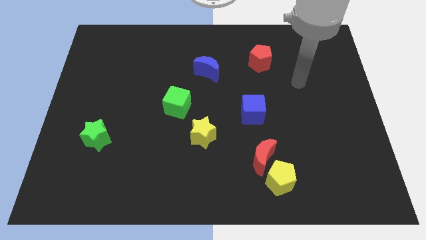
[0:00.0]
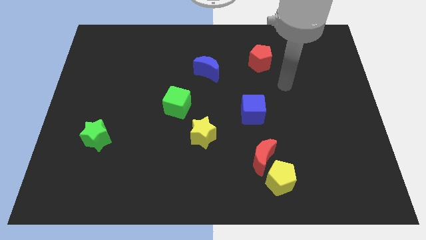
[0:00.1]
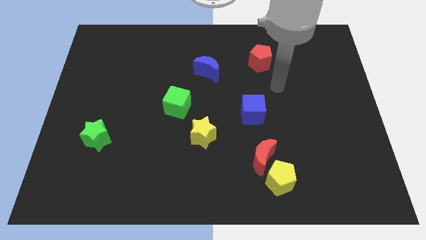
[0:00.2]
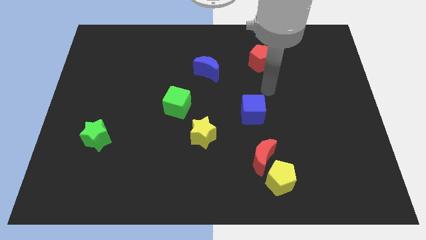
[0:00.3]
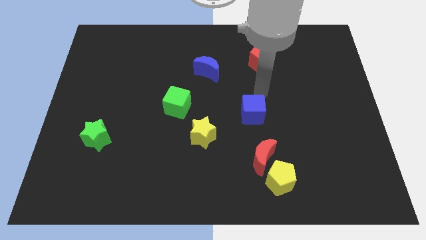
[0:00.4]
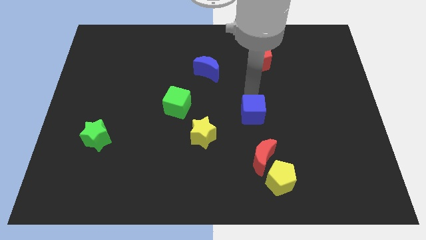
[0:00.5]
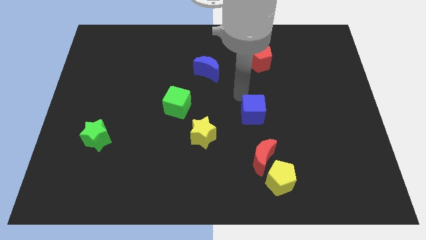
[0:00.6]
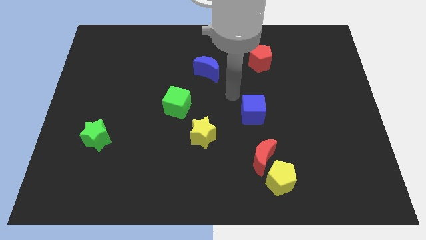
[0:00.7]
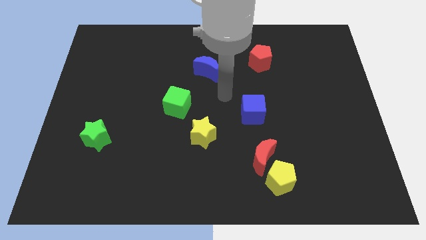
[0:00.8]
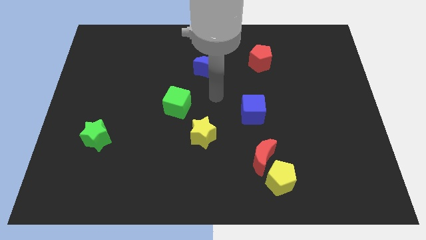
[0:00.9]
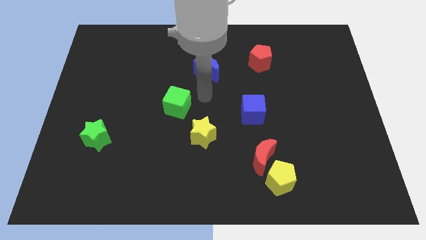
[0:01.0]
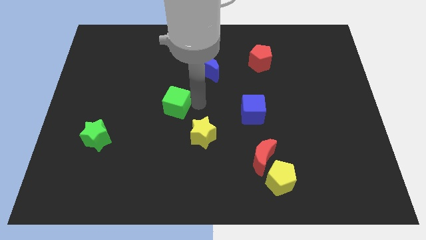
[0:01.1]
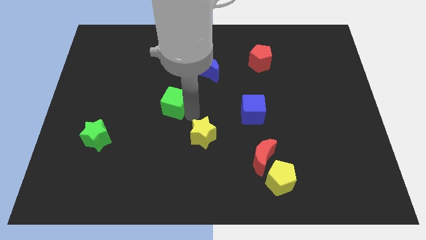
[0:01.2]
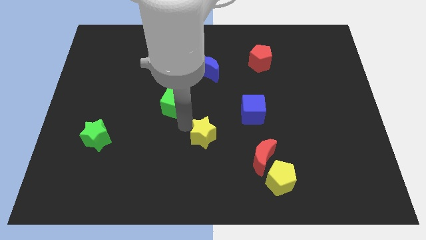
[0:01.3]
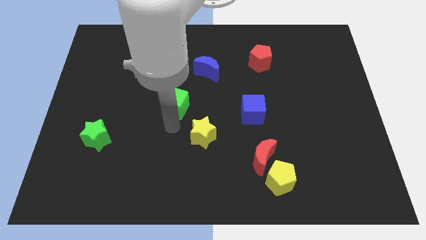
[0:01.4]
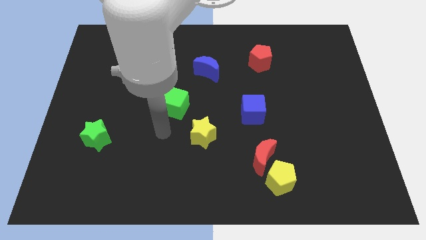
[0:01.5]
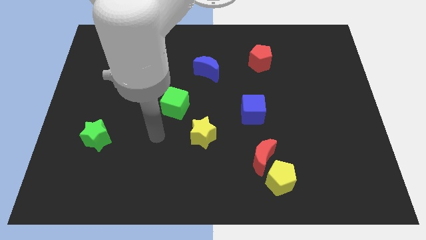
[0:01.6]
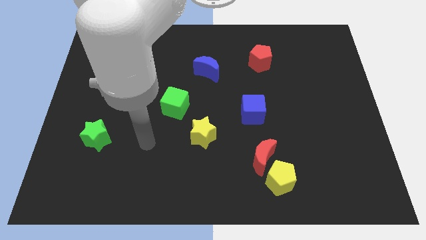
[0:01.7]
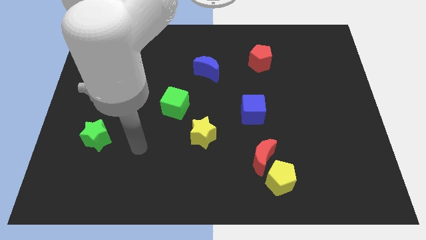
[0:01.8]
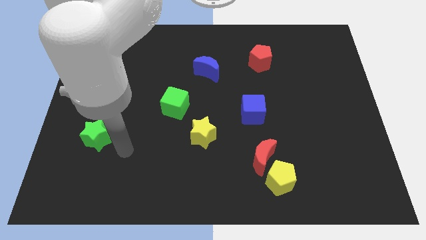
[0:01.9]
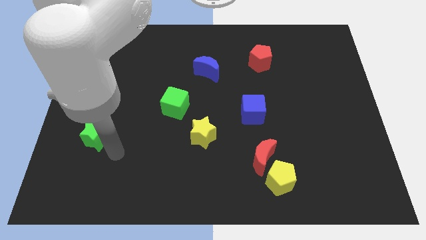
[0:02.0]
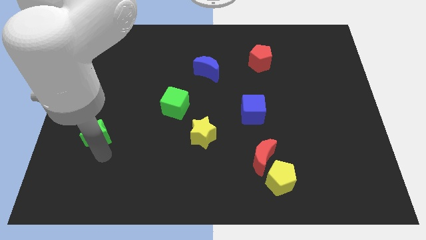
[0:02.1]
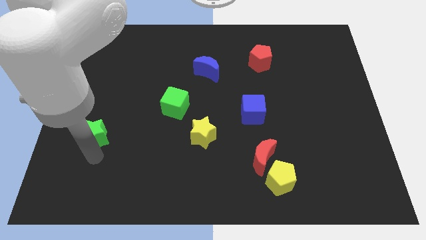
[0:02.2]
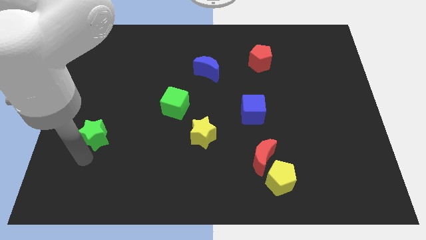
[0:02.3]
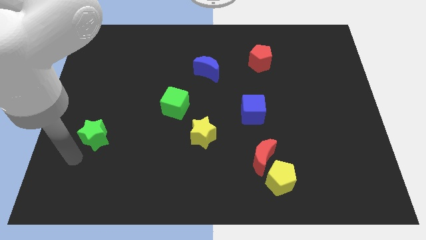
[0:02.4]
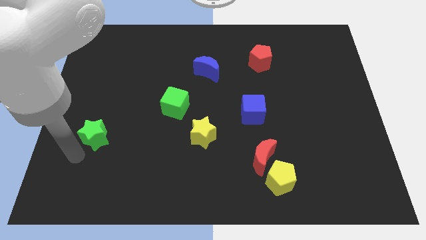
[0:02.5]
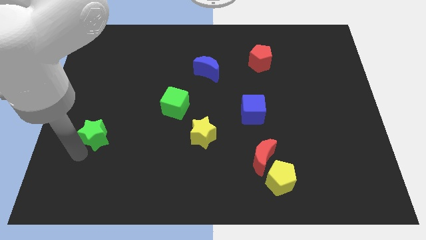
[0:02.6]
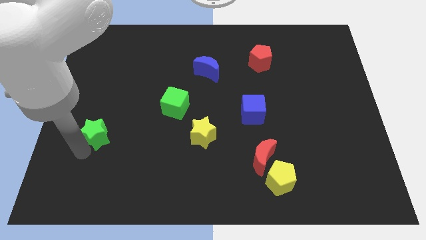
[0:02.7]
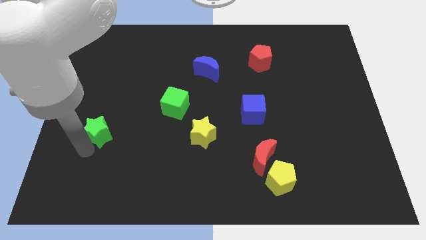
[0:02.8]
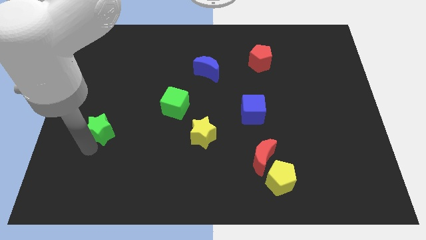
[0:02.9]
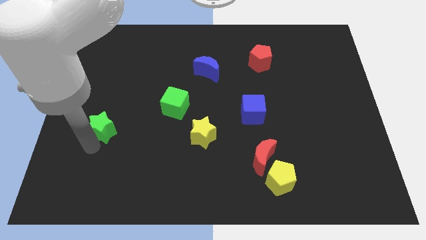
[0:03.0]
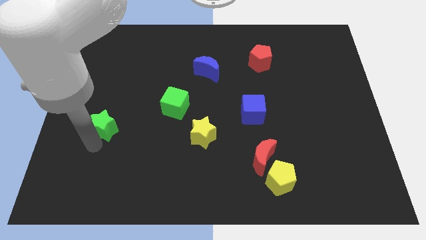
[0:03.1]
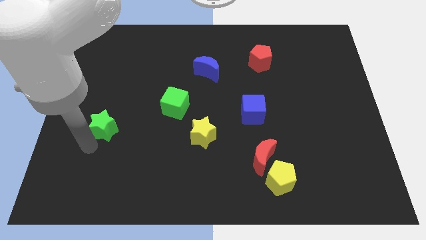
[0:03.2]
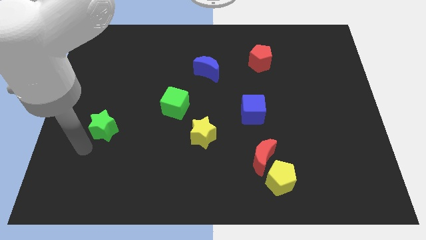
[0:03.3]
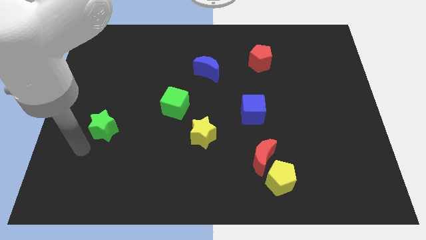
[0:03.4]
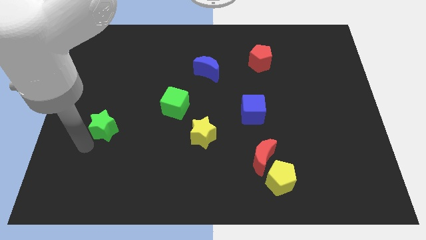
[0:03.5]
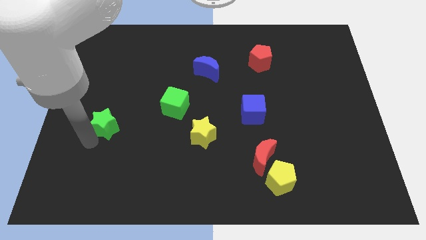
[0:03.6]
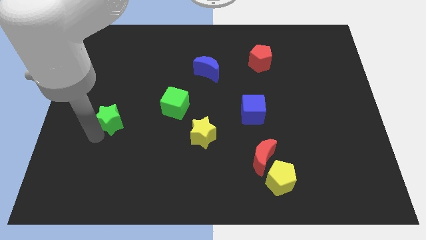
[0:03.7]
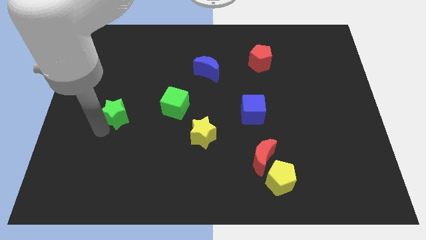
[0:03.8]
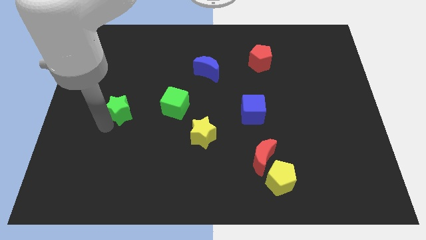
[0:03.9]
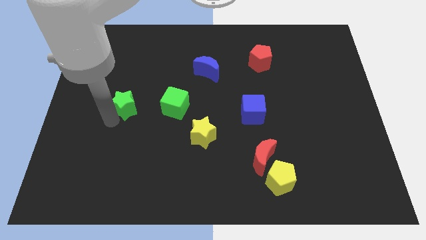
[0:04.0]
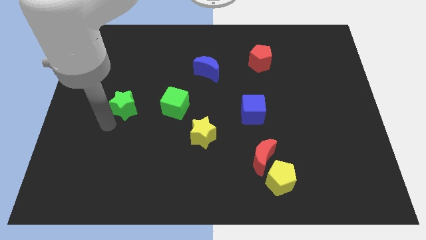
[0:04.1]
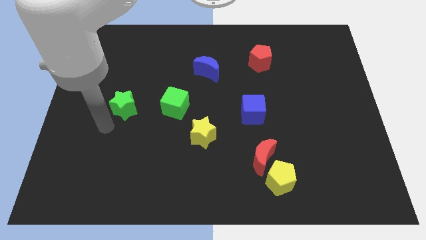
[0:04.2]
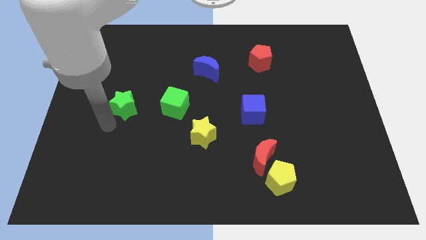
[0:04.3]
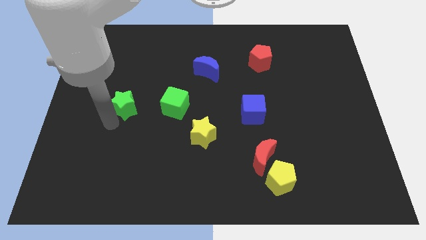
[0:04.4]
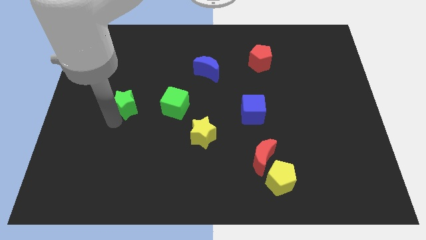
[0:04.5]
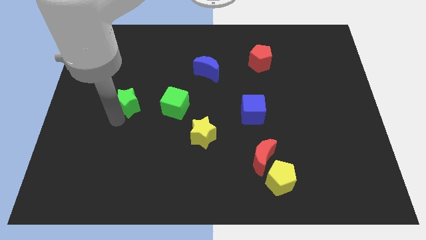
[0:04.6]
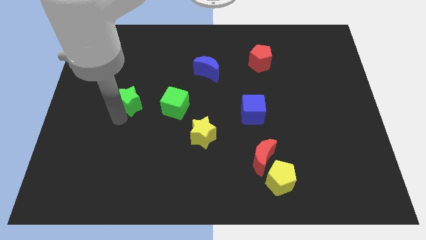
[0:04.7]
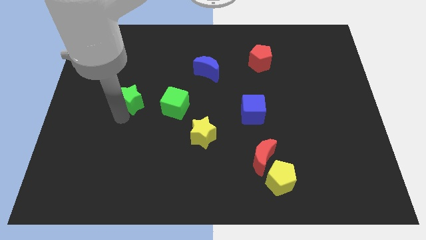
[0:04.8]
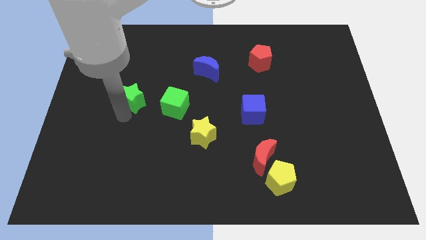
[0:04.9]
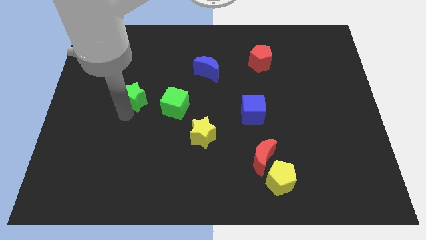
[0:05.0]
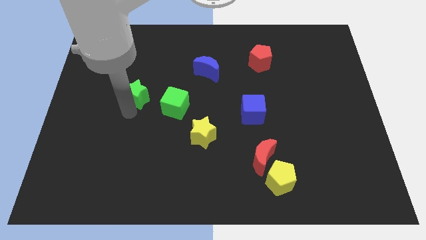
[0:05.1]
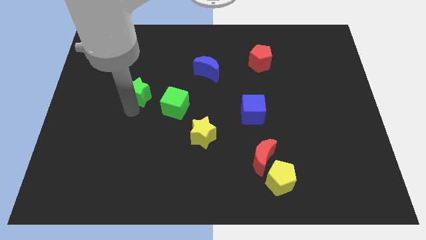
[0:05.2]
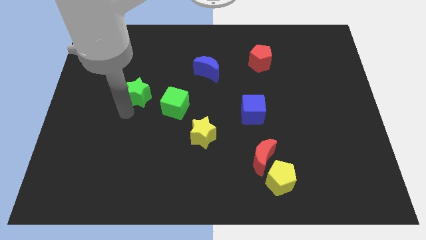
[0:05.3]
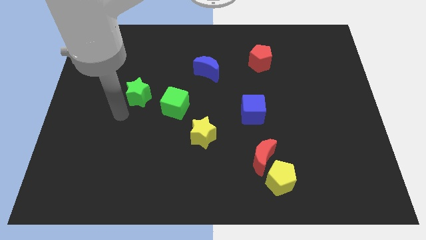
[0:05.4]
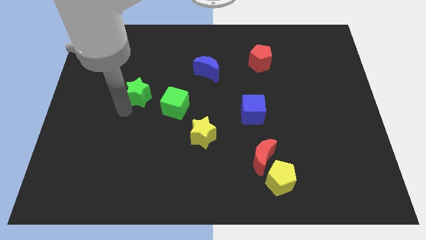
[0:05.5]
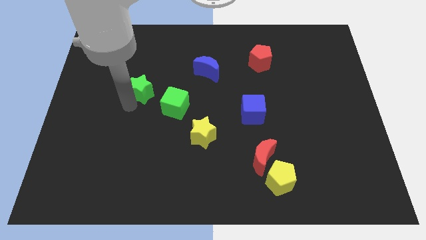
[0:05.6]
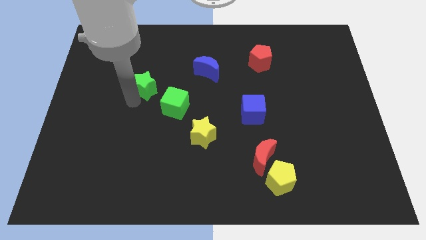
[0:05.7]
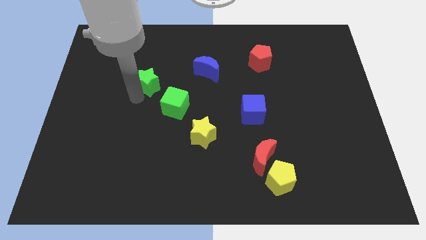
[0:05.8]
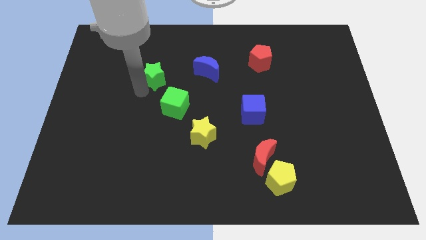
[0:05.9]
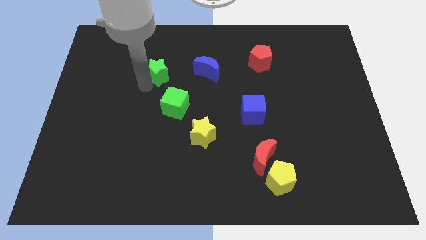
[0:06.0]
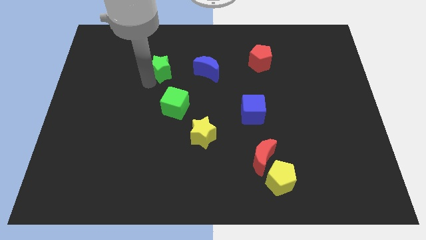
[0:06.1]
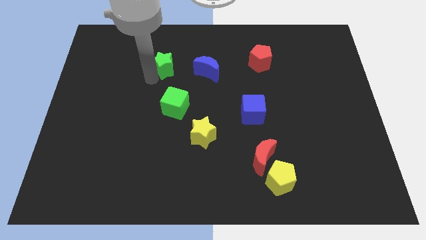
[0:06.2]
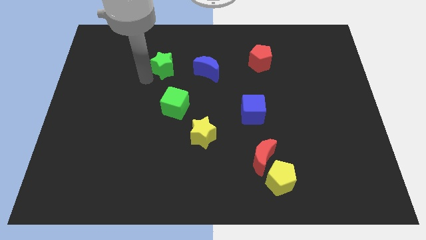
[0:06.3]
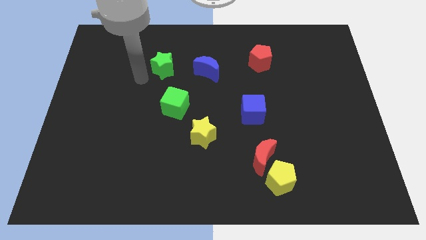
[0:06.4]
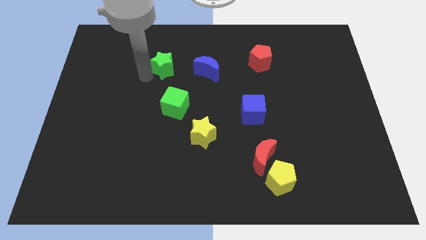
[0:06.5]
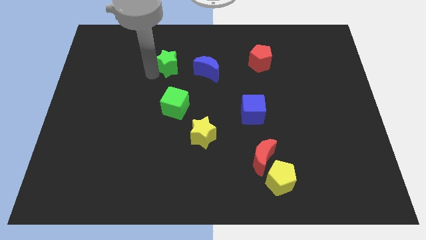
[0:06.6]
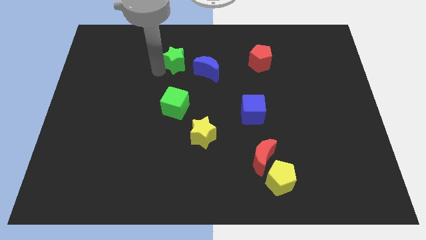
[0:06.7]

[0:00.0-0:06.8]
slide the green star diagonally up and to the left of the blue moon

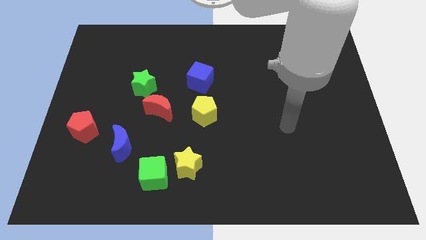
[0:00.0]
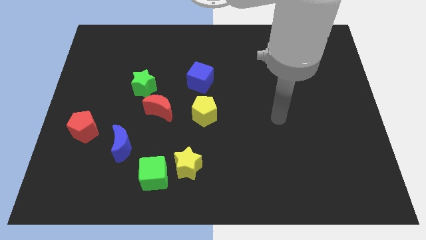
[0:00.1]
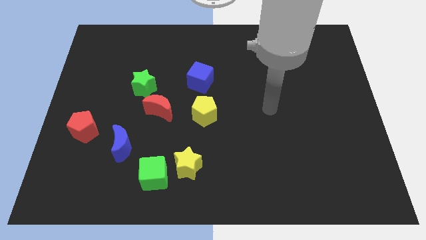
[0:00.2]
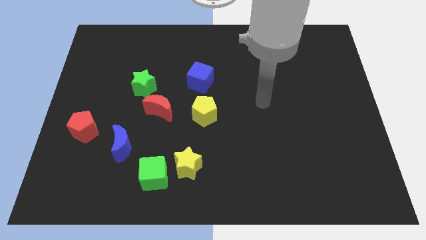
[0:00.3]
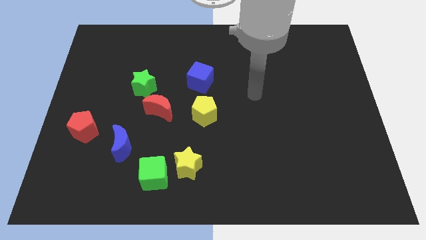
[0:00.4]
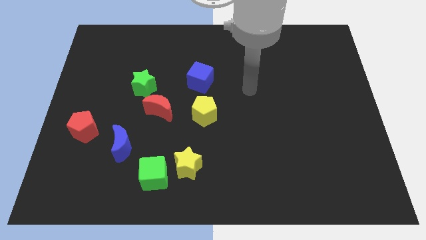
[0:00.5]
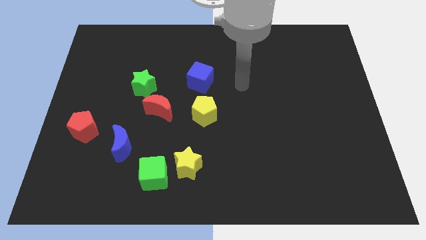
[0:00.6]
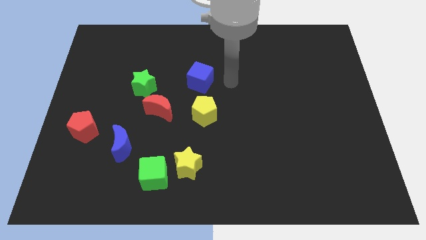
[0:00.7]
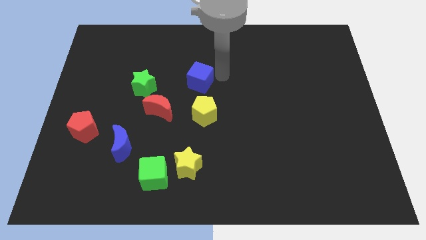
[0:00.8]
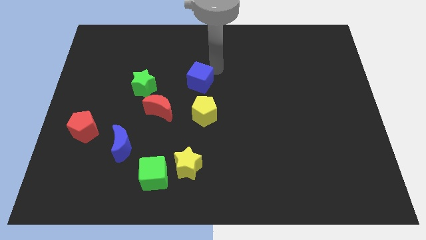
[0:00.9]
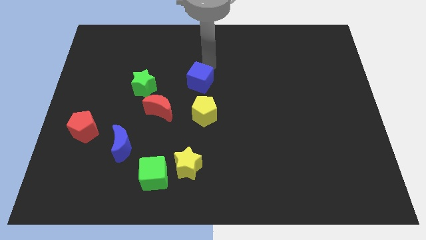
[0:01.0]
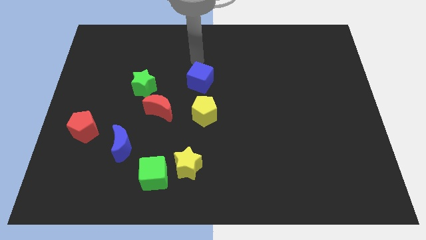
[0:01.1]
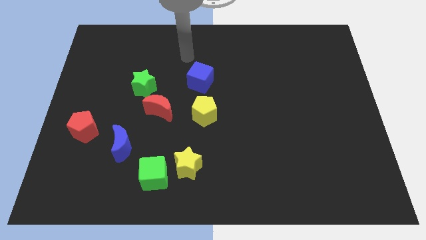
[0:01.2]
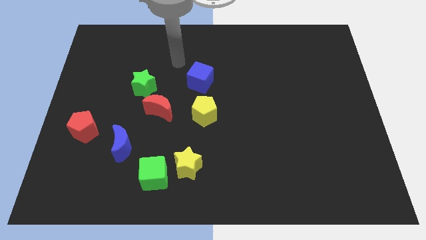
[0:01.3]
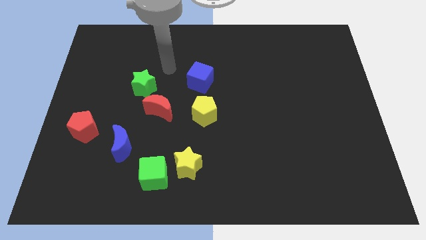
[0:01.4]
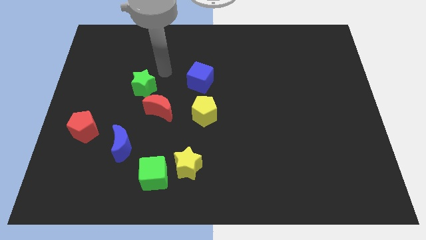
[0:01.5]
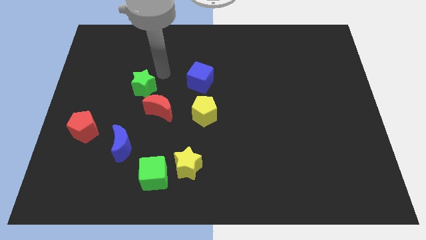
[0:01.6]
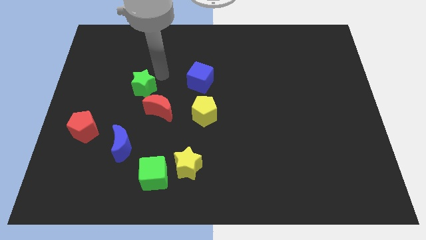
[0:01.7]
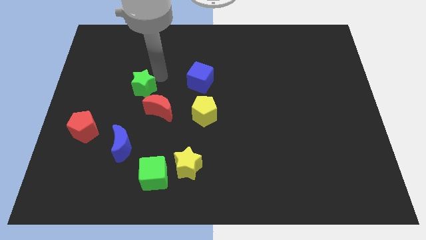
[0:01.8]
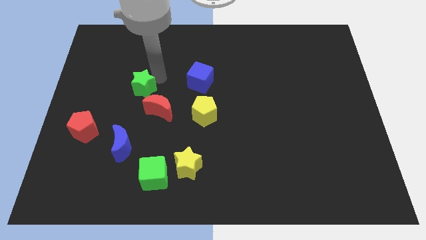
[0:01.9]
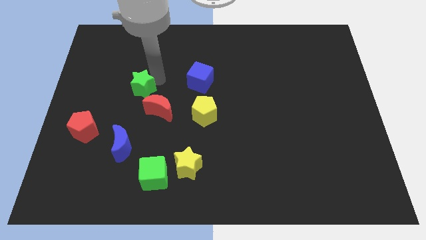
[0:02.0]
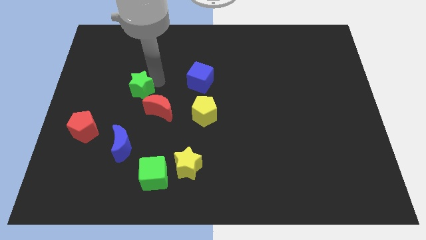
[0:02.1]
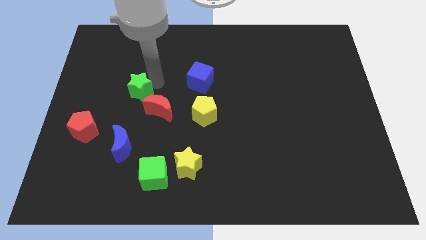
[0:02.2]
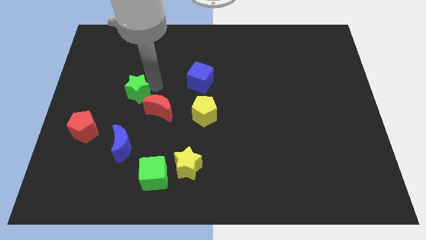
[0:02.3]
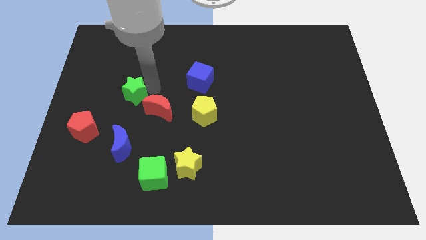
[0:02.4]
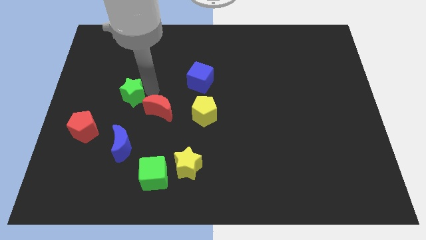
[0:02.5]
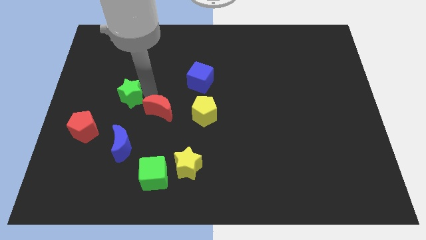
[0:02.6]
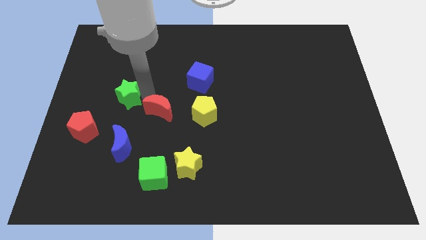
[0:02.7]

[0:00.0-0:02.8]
put the green star to the top right side of the red pentagon
